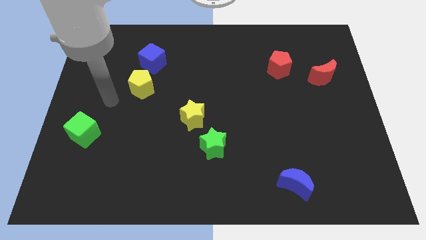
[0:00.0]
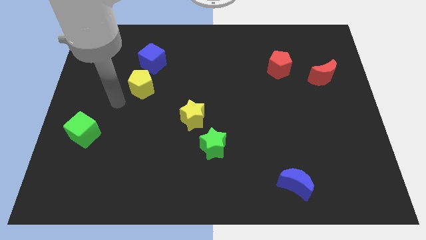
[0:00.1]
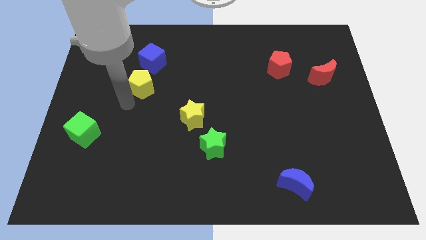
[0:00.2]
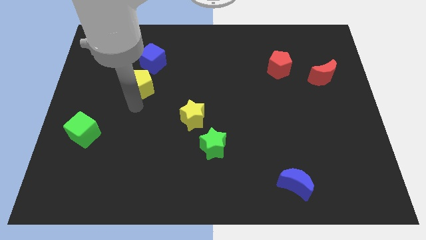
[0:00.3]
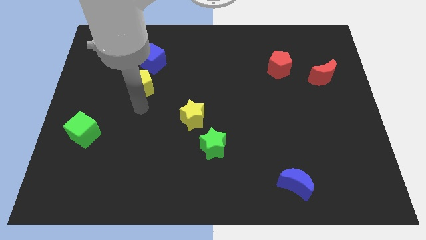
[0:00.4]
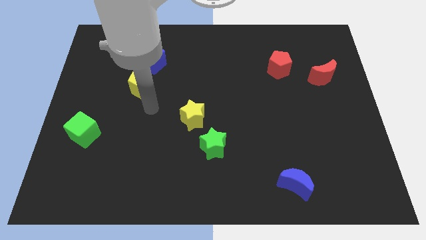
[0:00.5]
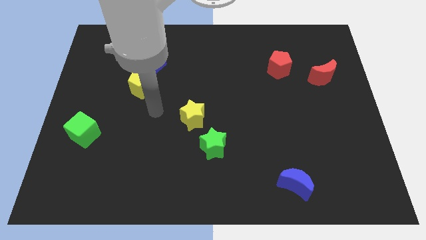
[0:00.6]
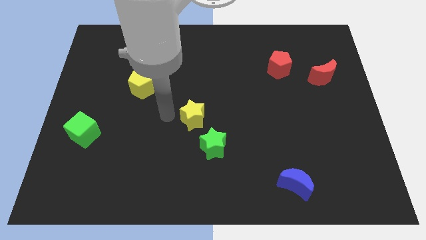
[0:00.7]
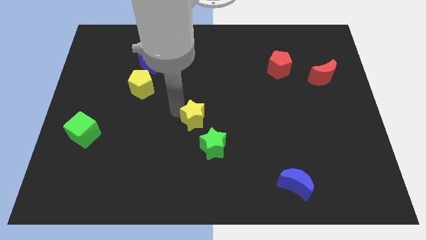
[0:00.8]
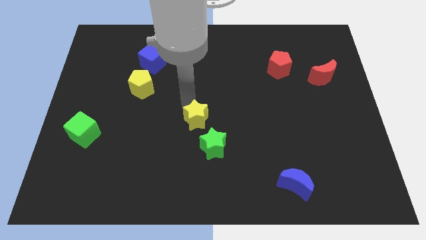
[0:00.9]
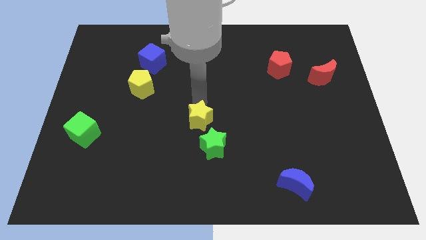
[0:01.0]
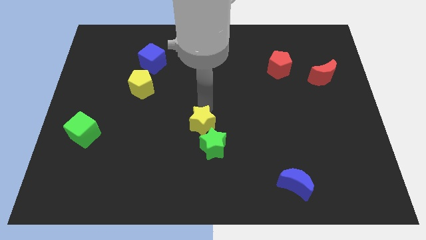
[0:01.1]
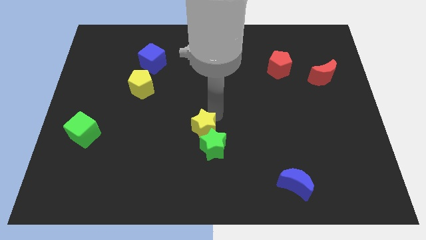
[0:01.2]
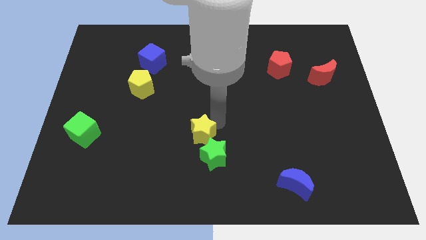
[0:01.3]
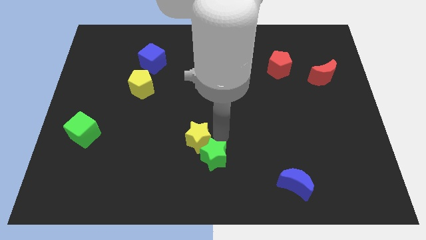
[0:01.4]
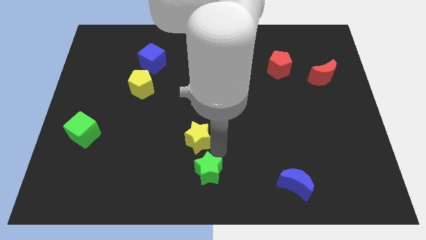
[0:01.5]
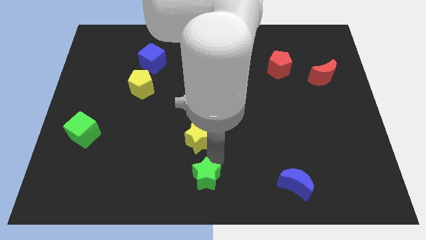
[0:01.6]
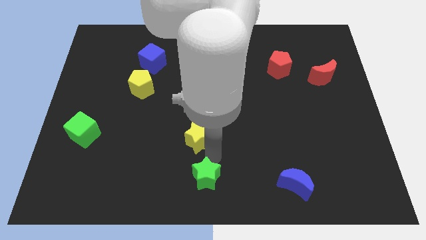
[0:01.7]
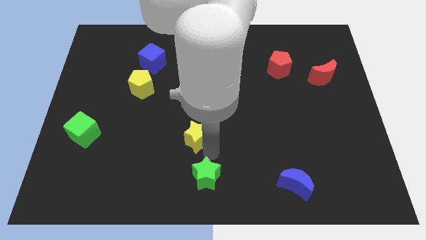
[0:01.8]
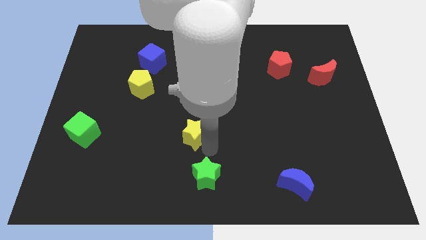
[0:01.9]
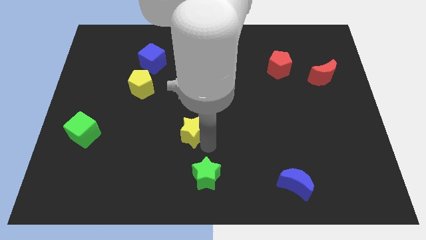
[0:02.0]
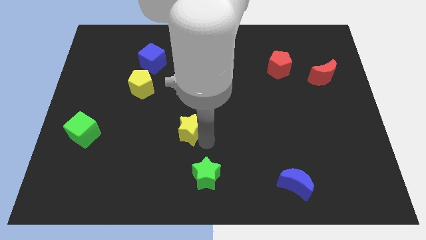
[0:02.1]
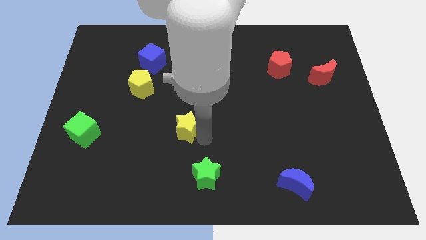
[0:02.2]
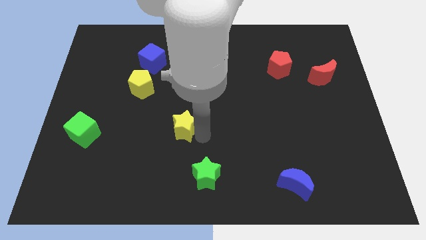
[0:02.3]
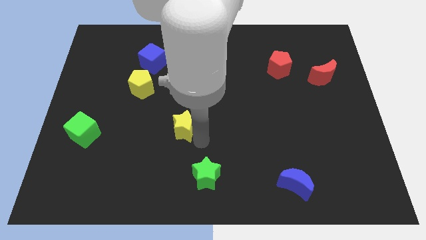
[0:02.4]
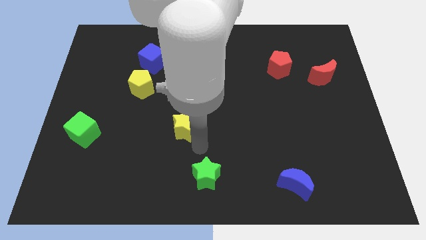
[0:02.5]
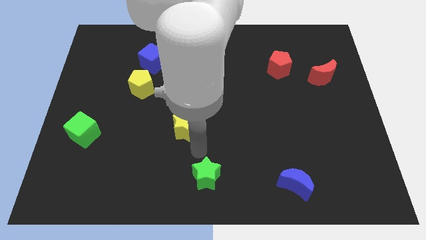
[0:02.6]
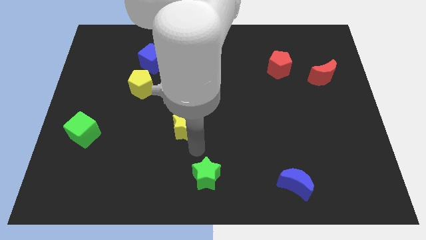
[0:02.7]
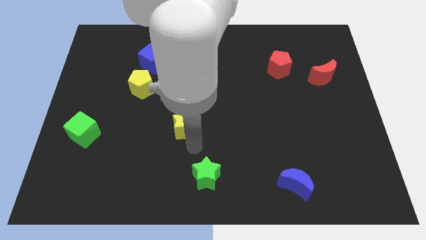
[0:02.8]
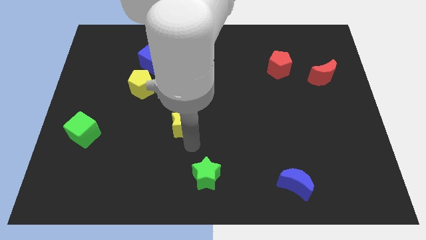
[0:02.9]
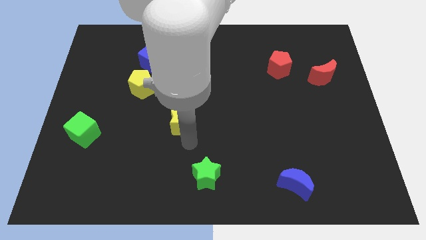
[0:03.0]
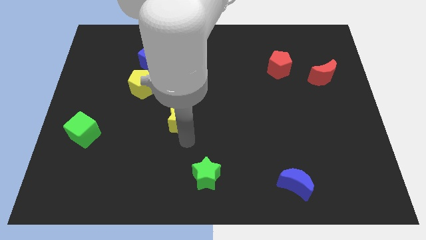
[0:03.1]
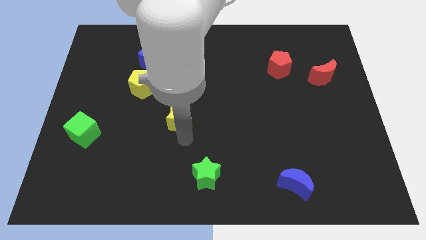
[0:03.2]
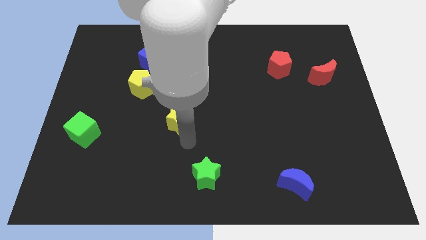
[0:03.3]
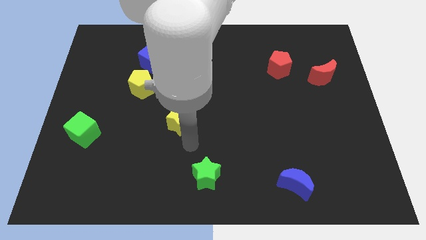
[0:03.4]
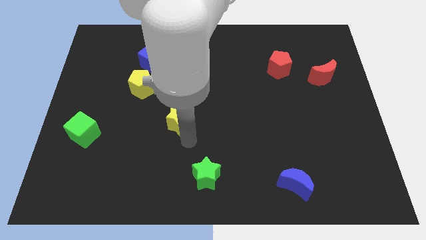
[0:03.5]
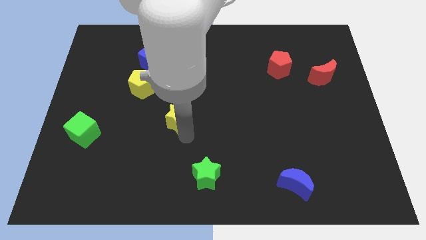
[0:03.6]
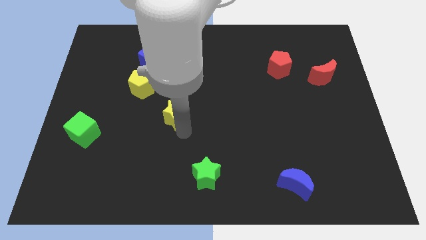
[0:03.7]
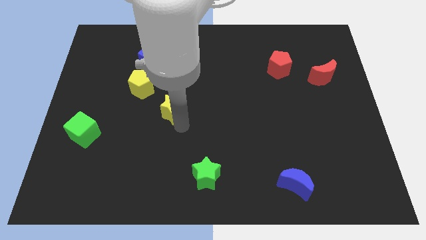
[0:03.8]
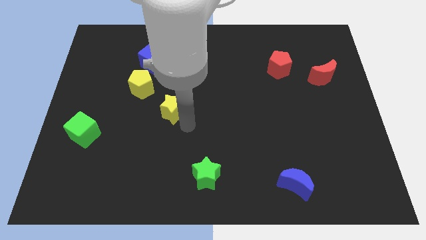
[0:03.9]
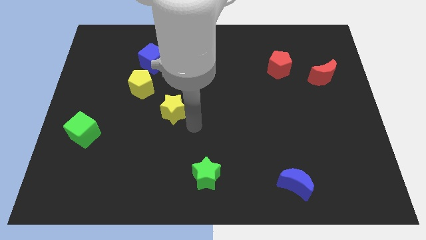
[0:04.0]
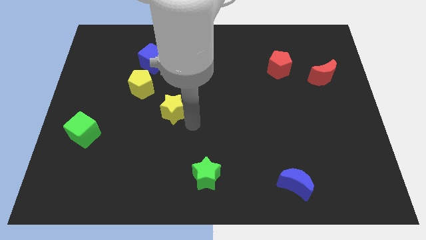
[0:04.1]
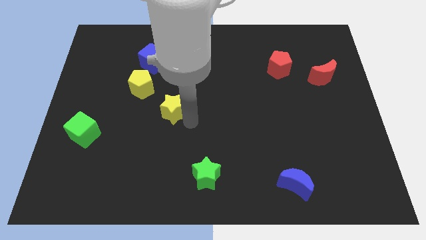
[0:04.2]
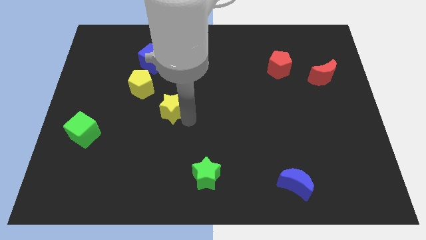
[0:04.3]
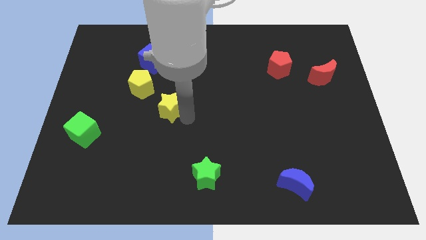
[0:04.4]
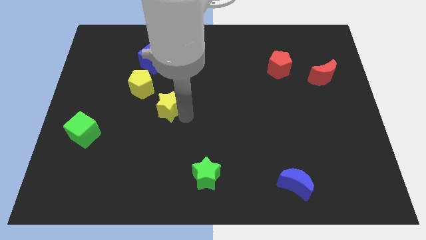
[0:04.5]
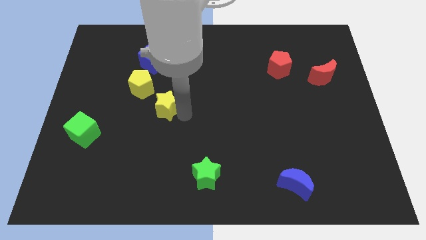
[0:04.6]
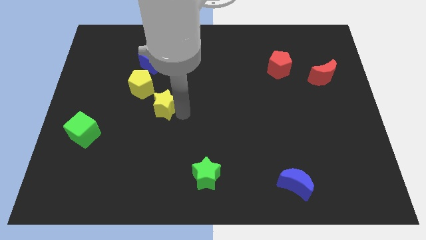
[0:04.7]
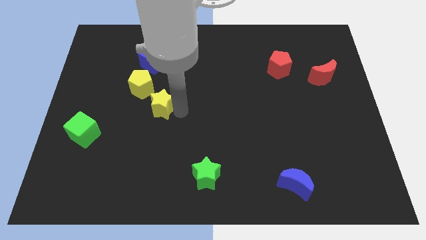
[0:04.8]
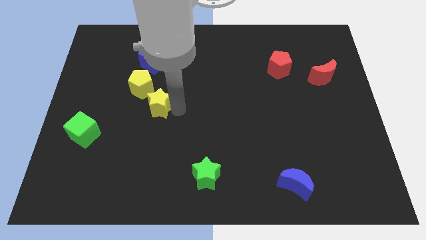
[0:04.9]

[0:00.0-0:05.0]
push the yellow star to the bottom of the blue cube

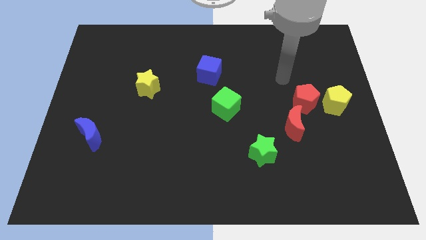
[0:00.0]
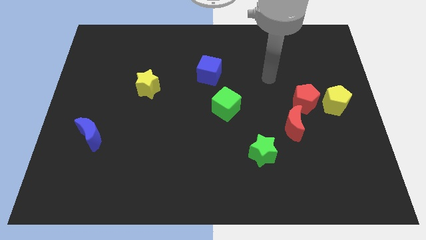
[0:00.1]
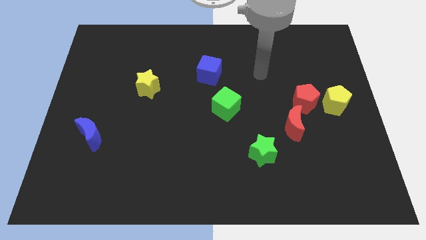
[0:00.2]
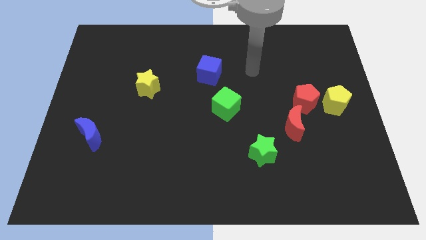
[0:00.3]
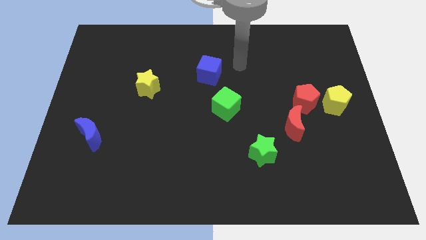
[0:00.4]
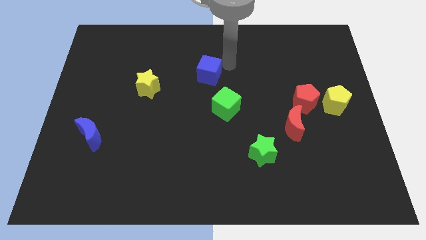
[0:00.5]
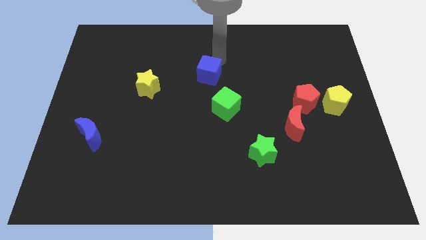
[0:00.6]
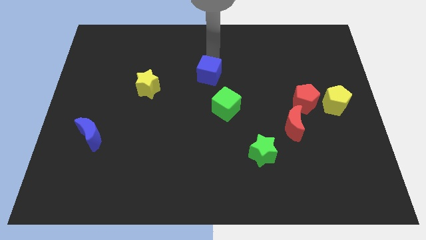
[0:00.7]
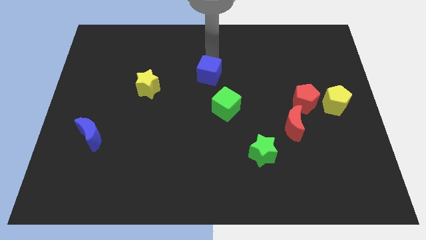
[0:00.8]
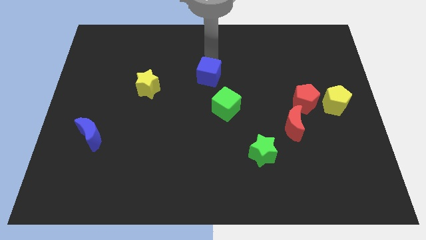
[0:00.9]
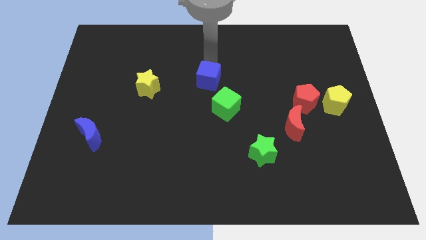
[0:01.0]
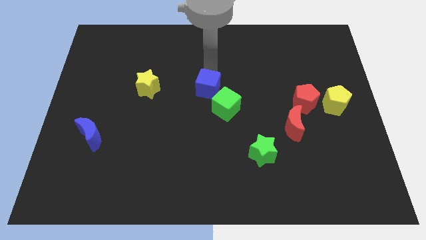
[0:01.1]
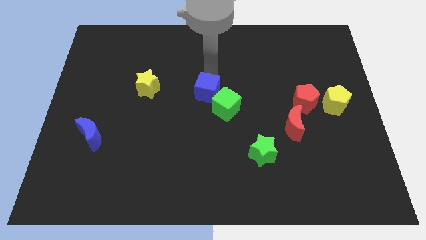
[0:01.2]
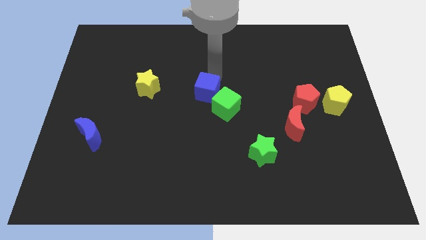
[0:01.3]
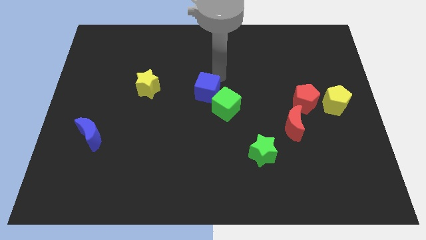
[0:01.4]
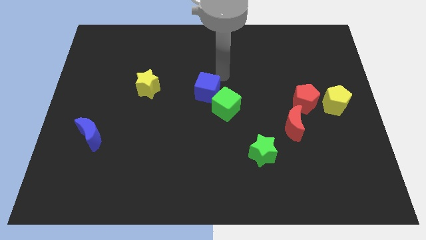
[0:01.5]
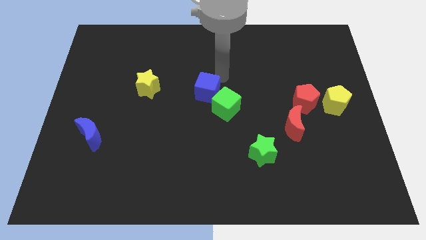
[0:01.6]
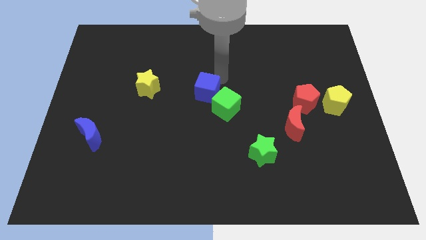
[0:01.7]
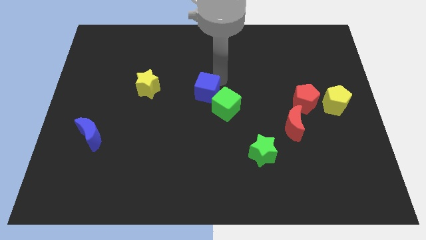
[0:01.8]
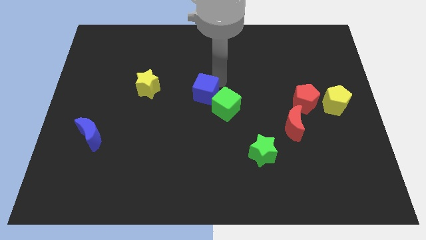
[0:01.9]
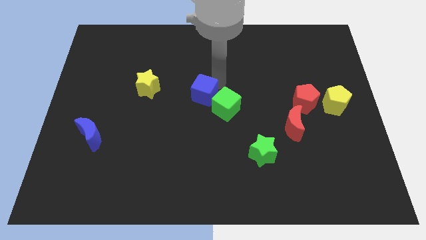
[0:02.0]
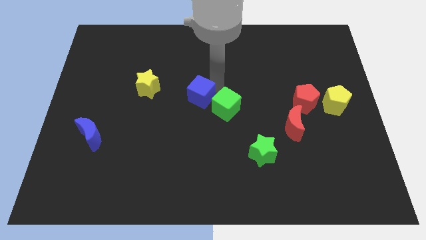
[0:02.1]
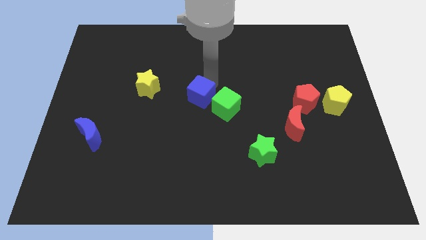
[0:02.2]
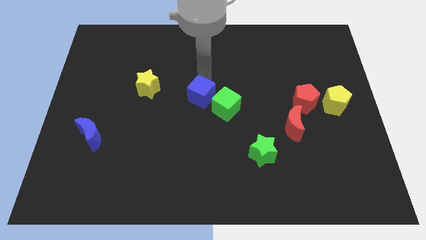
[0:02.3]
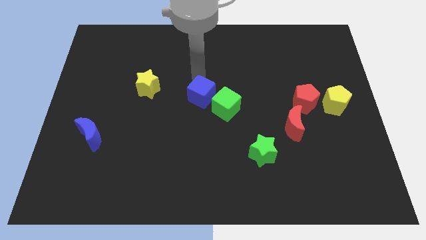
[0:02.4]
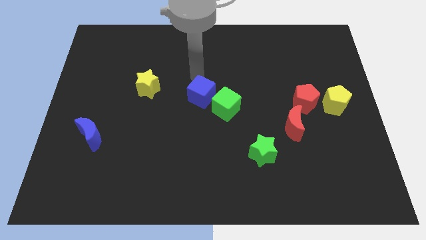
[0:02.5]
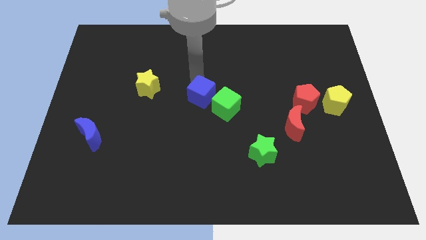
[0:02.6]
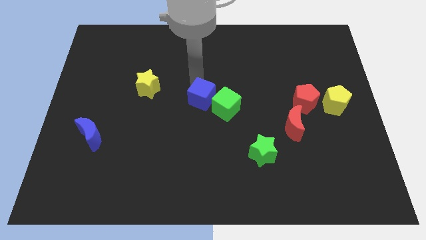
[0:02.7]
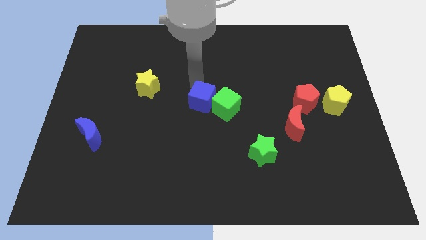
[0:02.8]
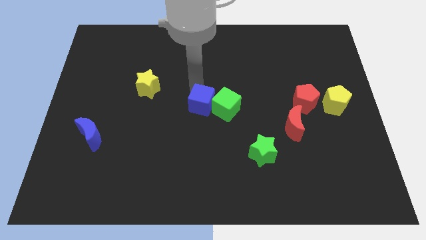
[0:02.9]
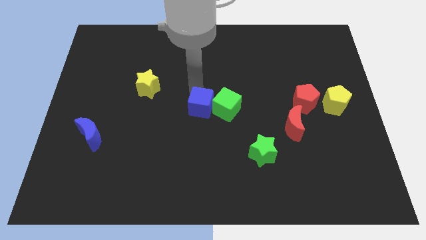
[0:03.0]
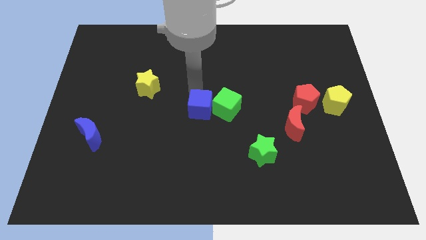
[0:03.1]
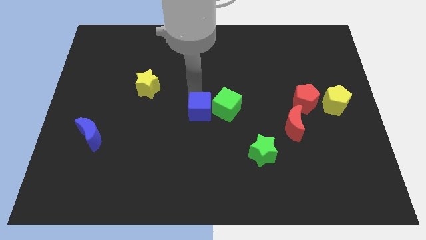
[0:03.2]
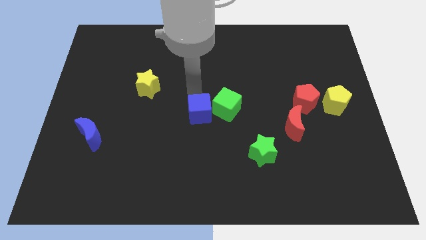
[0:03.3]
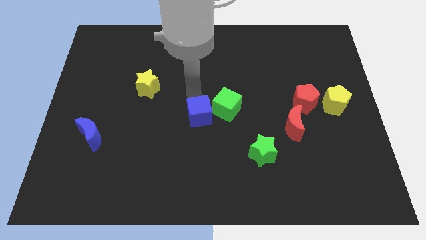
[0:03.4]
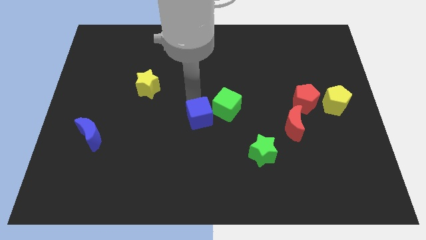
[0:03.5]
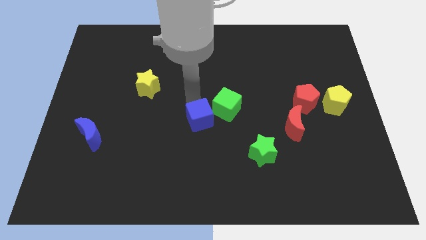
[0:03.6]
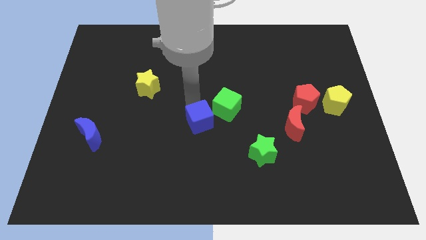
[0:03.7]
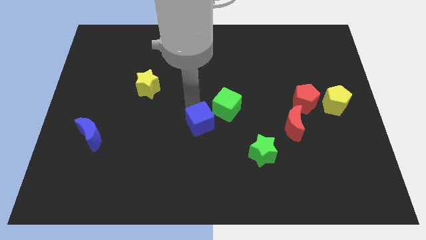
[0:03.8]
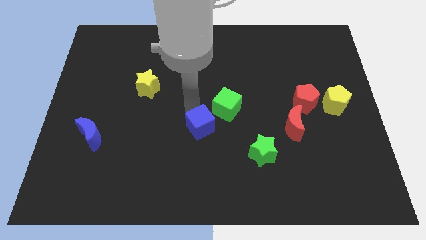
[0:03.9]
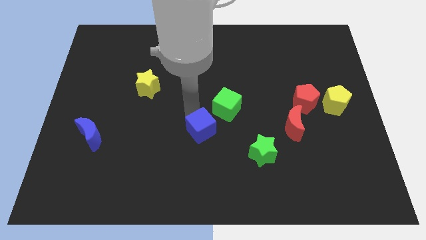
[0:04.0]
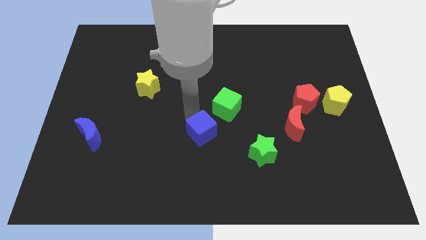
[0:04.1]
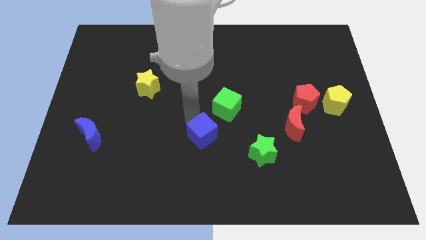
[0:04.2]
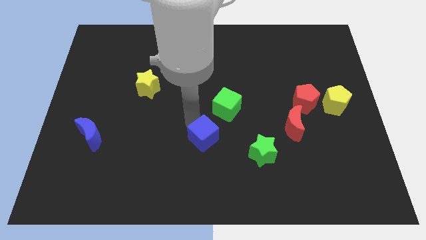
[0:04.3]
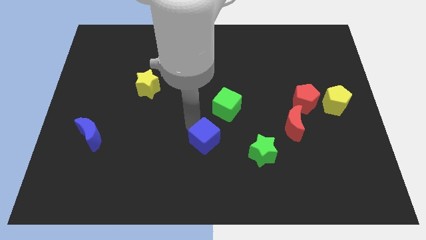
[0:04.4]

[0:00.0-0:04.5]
move the blue cube to the bottom side of the green cube
